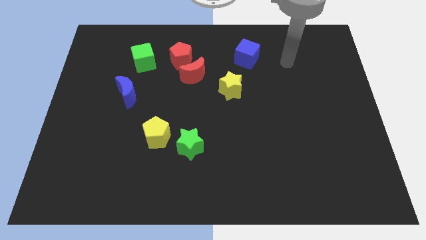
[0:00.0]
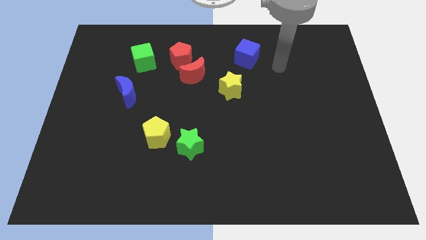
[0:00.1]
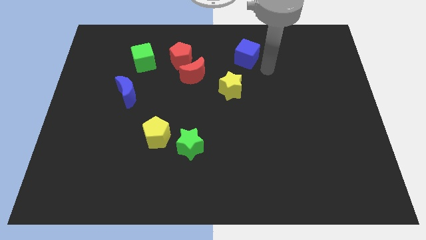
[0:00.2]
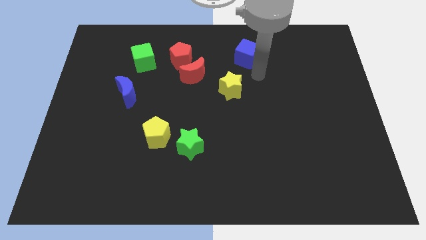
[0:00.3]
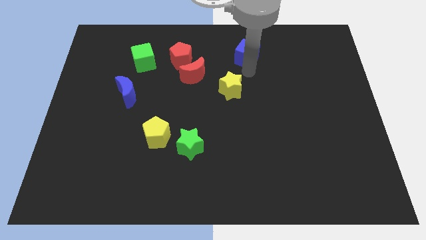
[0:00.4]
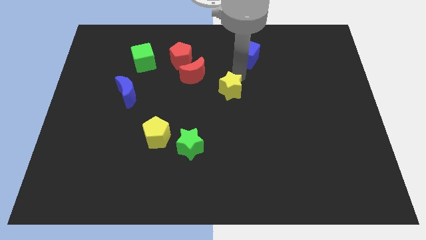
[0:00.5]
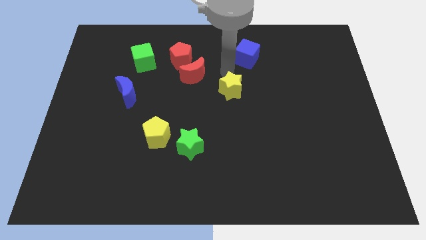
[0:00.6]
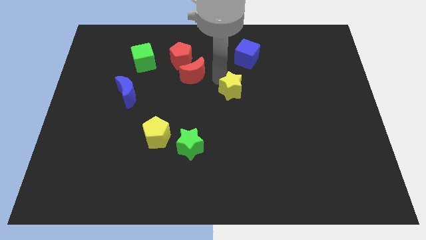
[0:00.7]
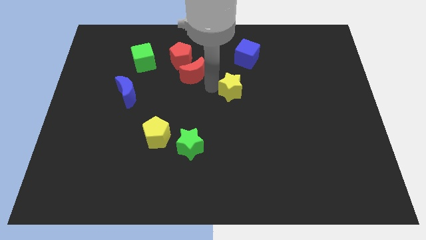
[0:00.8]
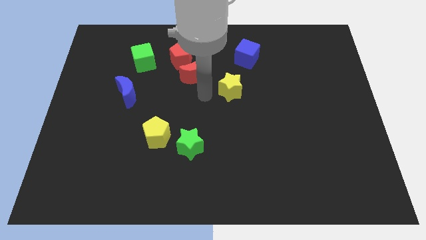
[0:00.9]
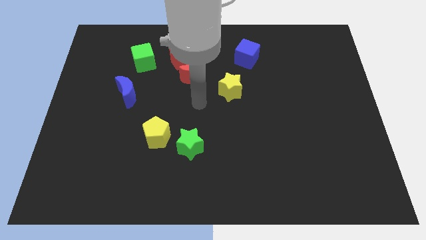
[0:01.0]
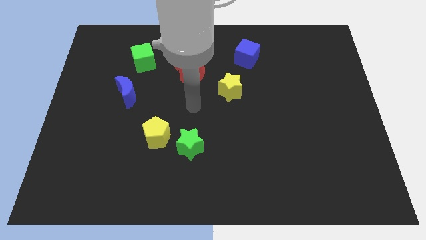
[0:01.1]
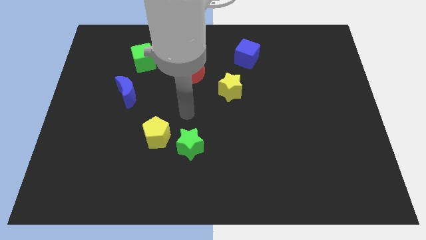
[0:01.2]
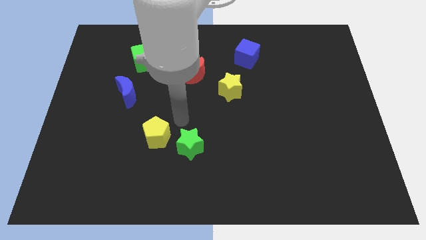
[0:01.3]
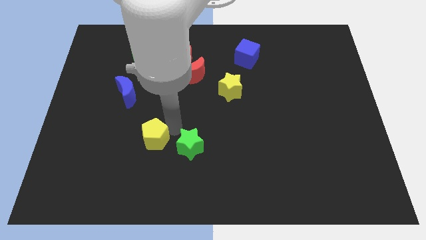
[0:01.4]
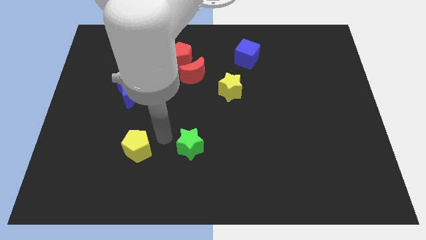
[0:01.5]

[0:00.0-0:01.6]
separate the green star from the yellow pentagon

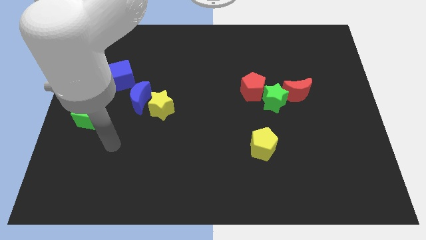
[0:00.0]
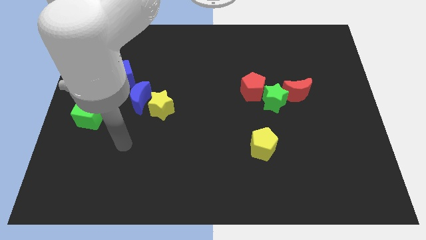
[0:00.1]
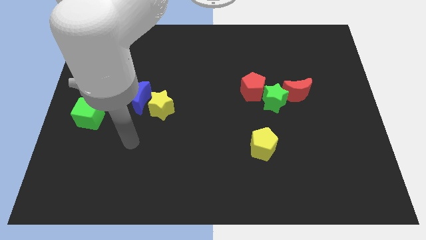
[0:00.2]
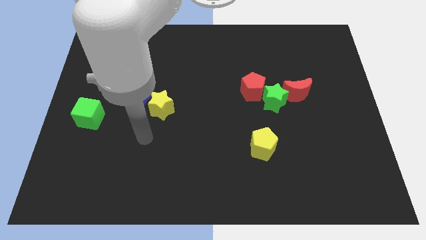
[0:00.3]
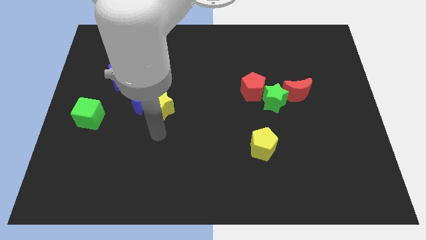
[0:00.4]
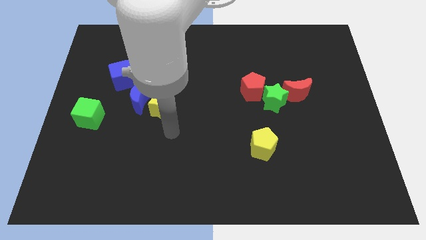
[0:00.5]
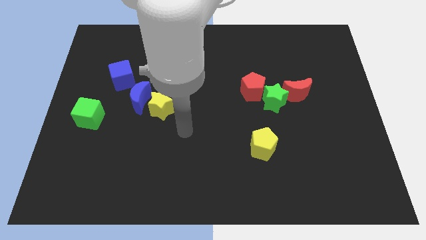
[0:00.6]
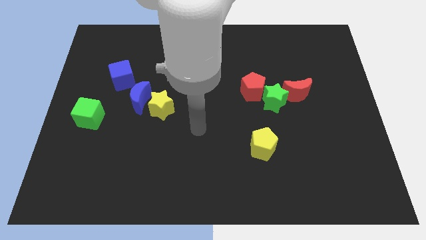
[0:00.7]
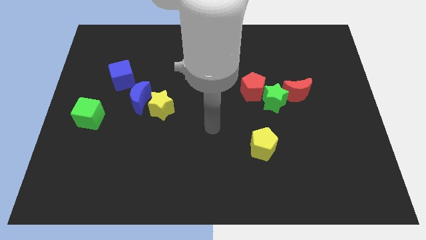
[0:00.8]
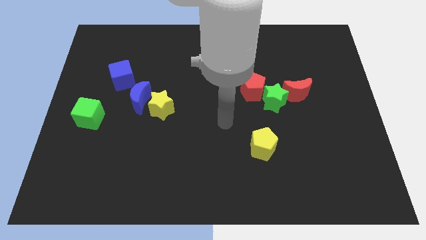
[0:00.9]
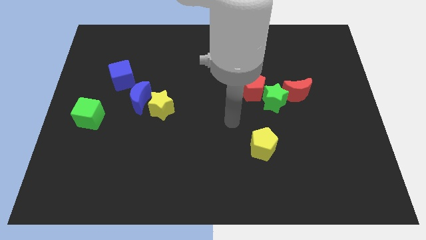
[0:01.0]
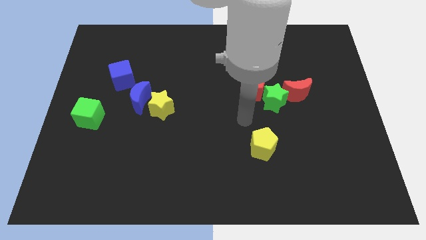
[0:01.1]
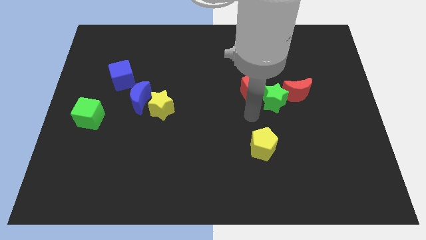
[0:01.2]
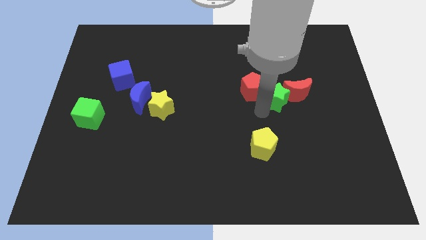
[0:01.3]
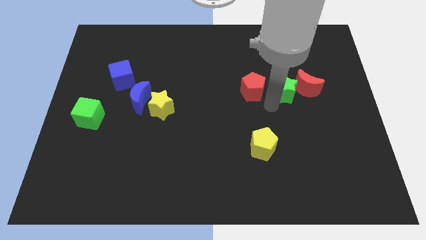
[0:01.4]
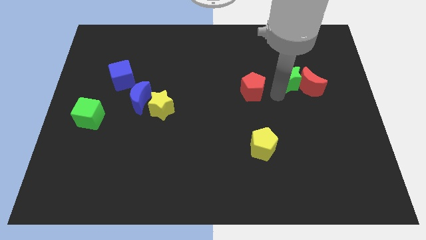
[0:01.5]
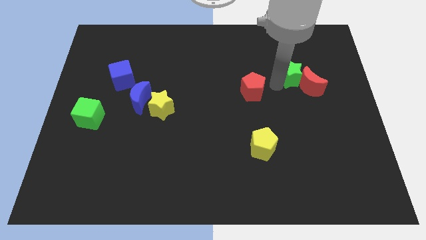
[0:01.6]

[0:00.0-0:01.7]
move the red pentagon away from the green star

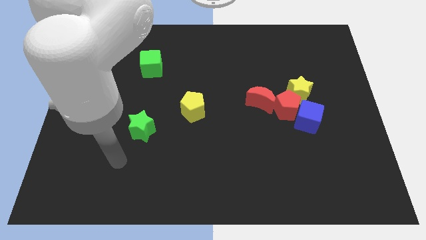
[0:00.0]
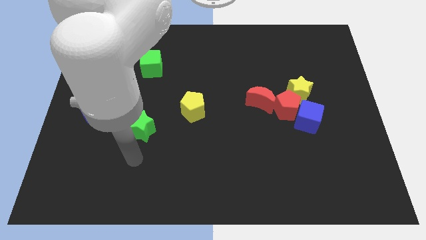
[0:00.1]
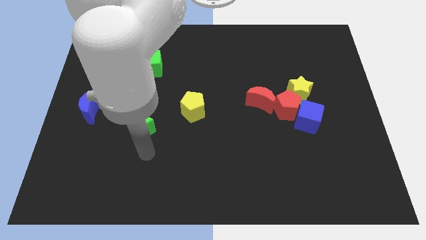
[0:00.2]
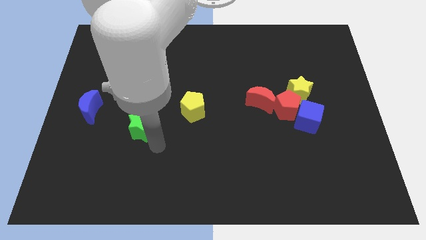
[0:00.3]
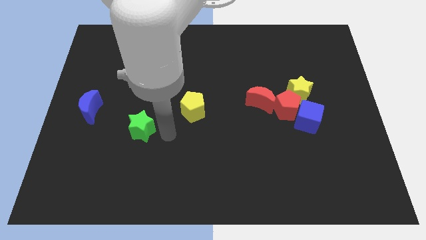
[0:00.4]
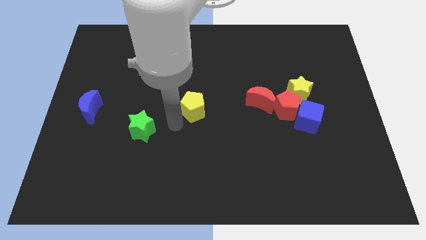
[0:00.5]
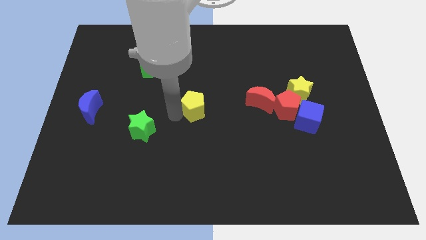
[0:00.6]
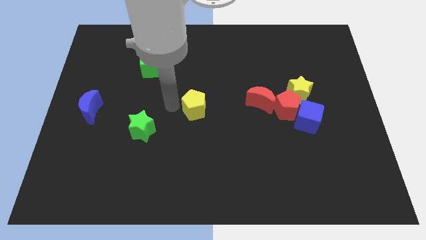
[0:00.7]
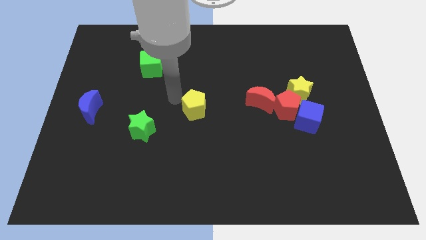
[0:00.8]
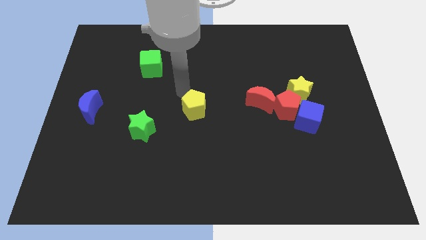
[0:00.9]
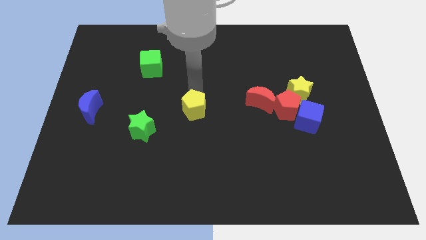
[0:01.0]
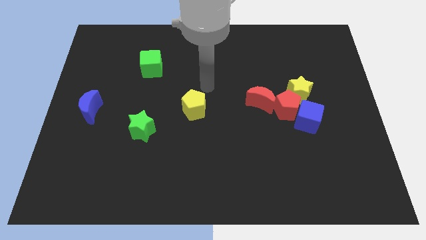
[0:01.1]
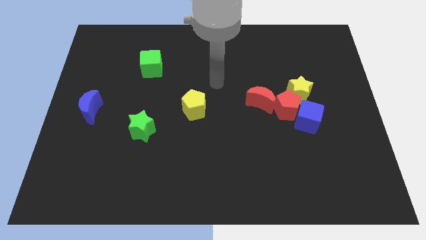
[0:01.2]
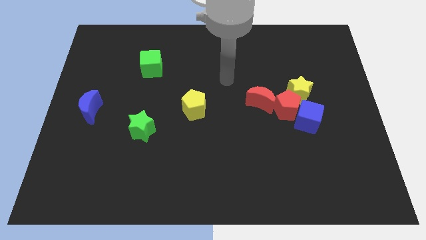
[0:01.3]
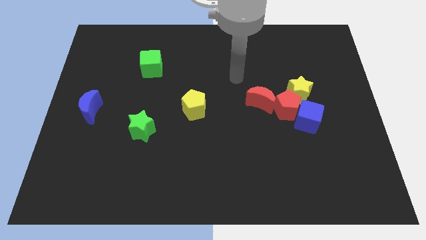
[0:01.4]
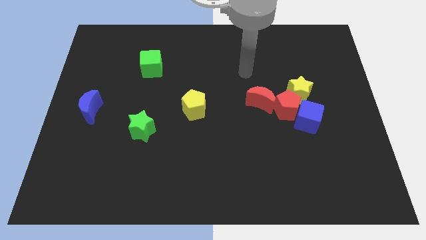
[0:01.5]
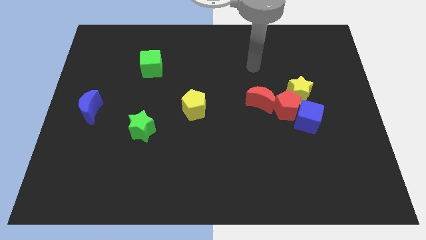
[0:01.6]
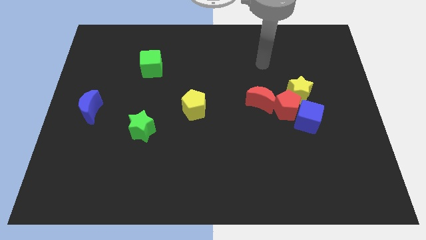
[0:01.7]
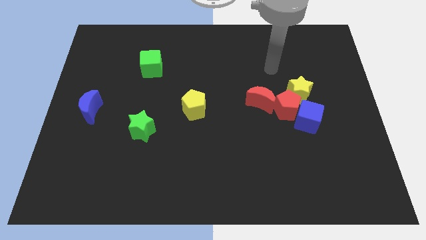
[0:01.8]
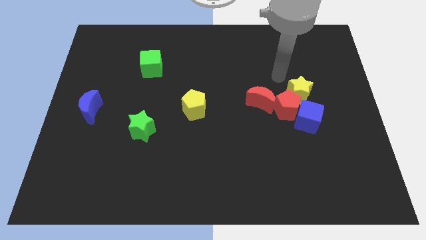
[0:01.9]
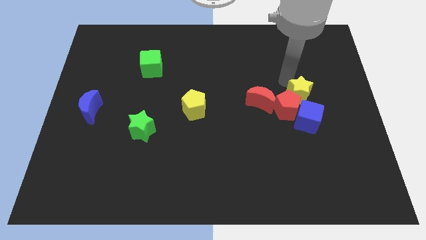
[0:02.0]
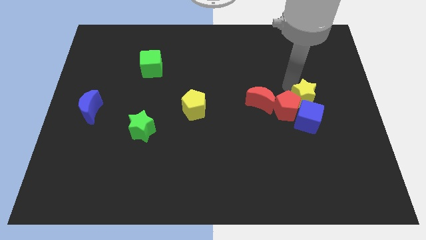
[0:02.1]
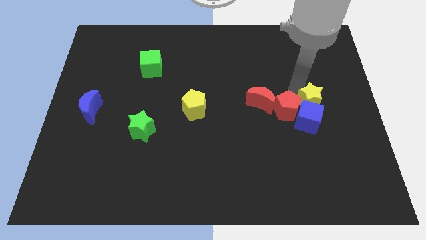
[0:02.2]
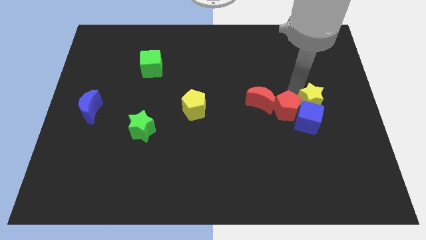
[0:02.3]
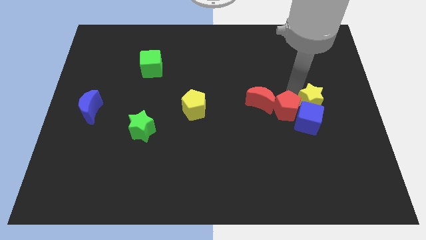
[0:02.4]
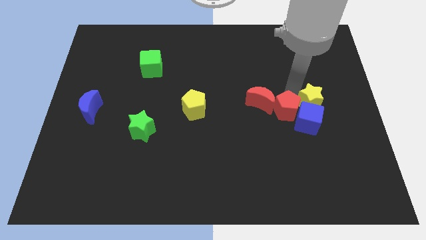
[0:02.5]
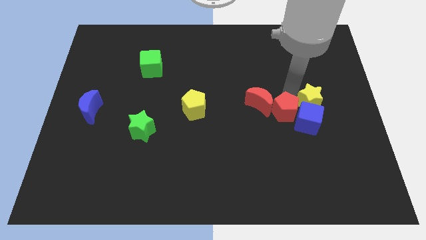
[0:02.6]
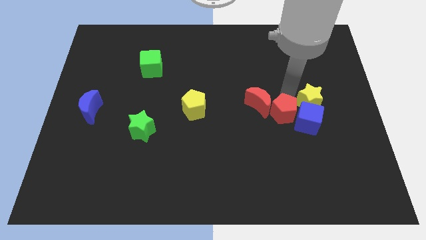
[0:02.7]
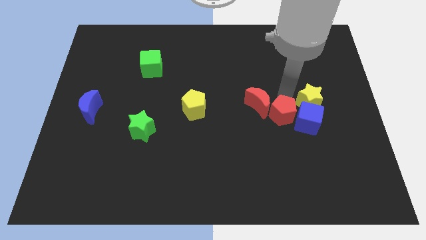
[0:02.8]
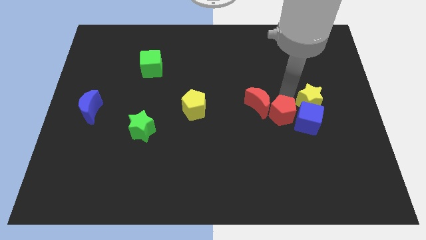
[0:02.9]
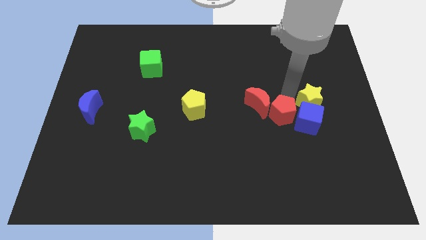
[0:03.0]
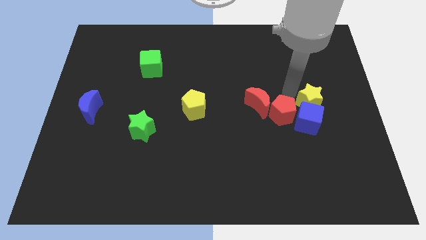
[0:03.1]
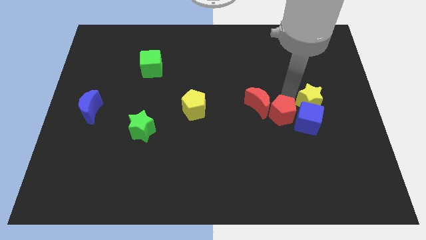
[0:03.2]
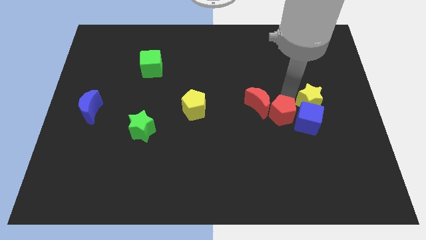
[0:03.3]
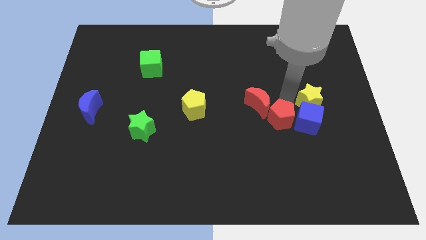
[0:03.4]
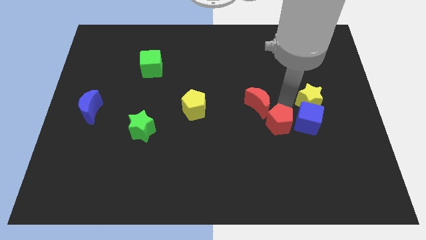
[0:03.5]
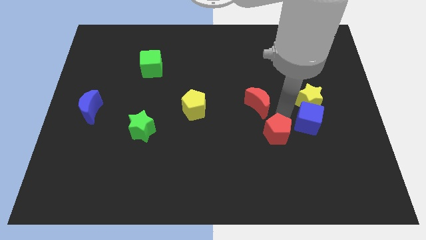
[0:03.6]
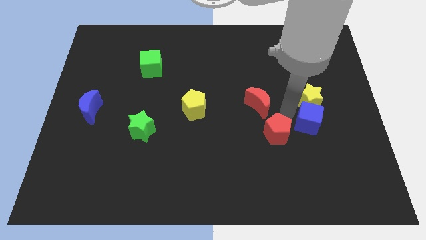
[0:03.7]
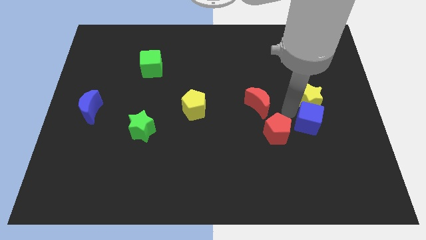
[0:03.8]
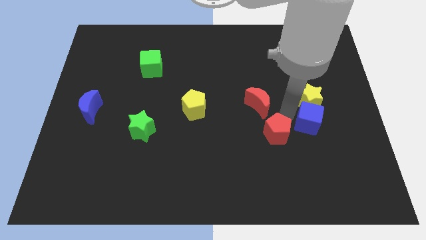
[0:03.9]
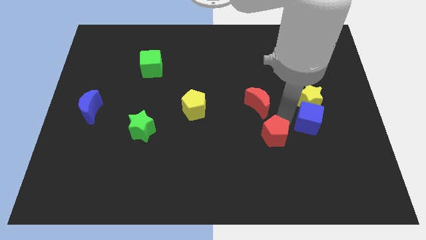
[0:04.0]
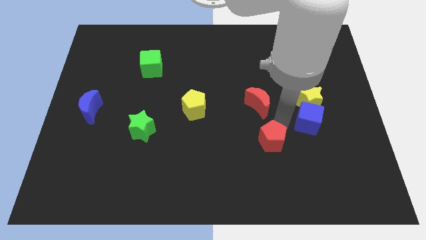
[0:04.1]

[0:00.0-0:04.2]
pull the red pentagon apart from the blue cube, yellow star, and red moon

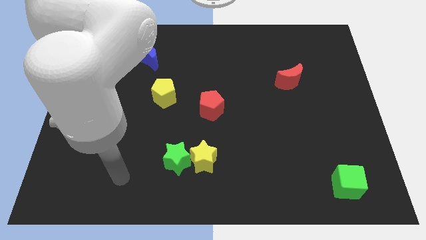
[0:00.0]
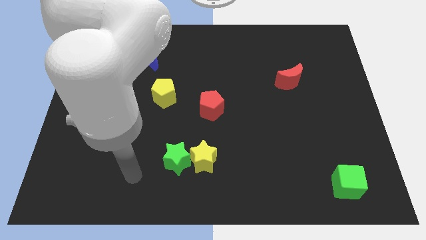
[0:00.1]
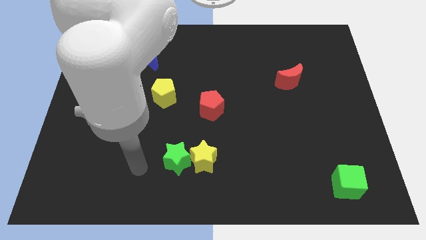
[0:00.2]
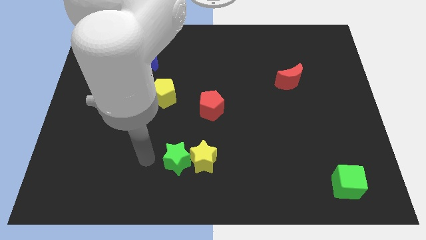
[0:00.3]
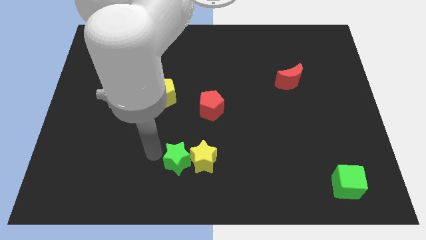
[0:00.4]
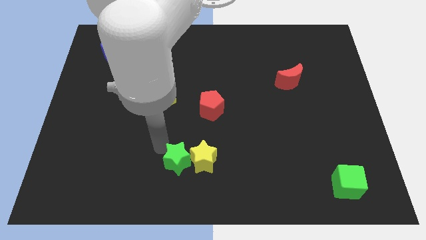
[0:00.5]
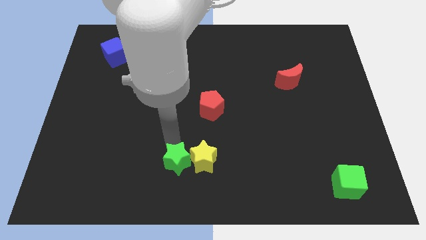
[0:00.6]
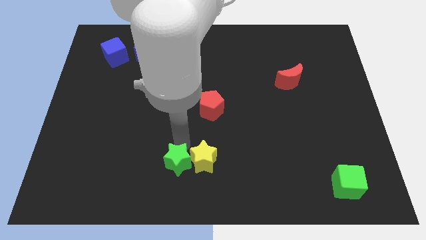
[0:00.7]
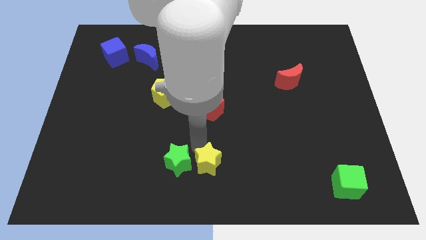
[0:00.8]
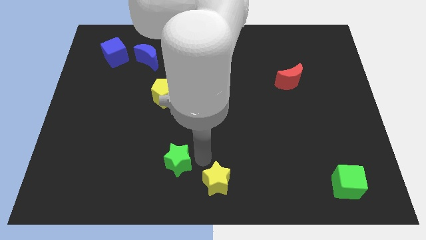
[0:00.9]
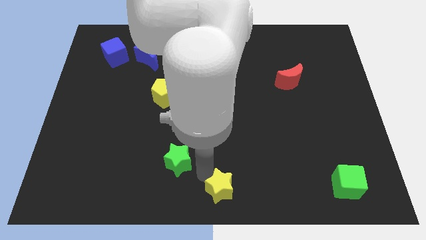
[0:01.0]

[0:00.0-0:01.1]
separate the green star from the yellow star

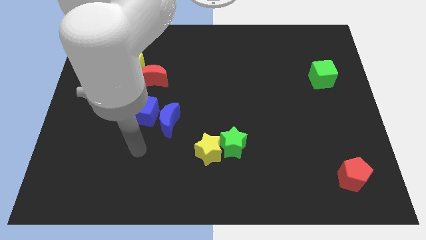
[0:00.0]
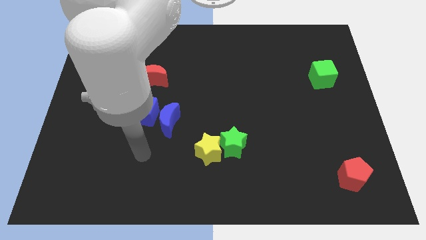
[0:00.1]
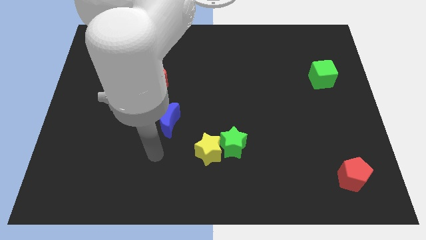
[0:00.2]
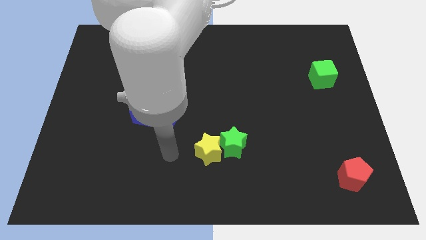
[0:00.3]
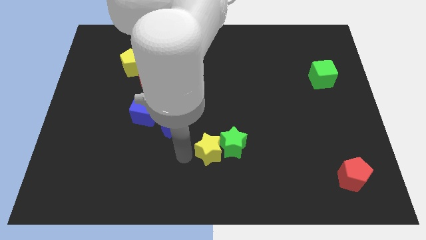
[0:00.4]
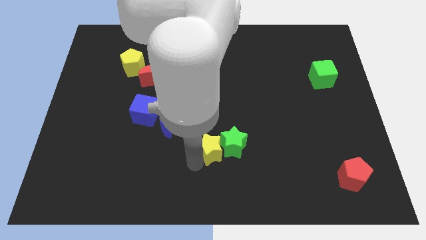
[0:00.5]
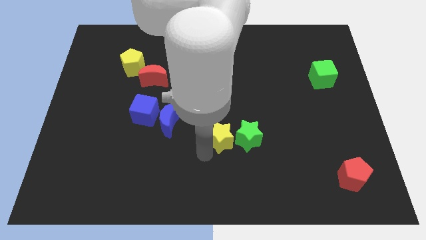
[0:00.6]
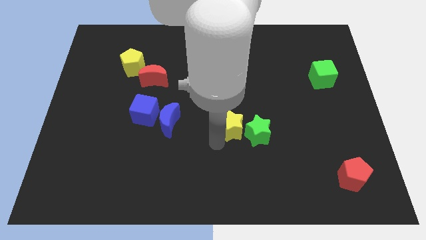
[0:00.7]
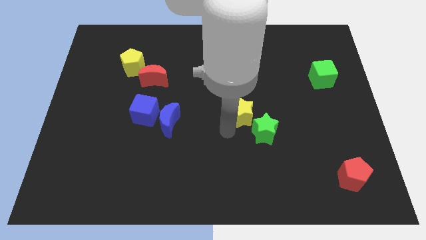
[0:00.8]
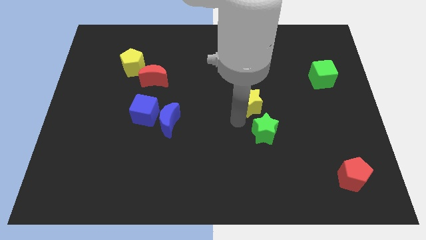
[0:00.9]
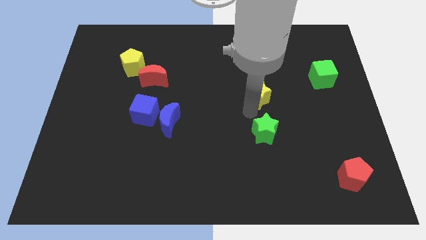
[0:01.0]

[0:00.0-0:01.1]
move the green star away from the yellow star
